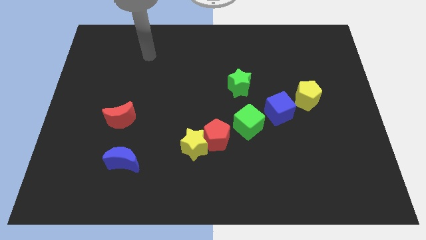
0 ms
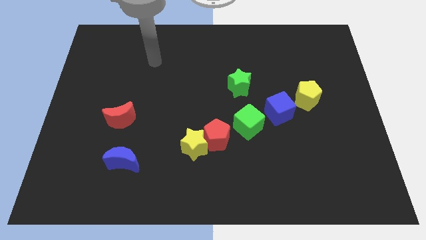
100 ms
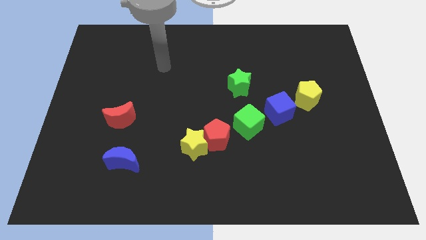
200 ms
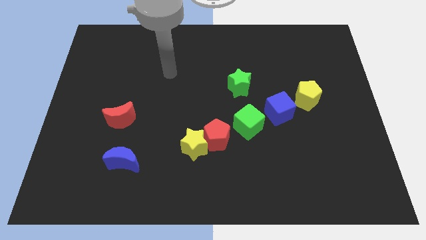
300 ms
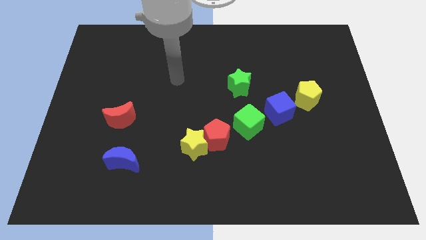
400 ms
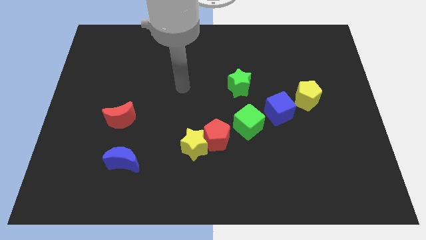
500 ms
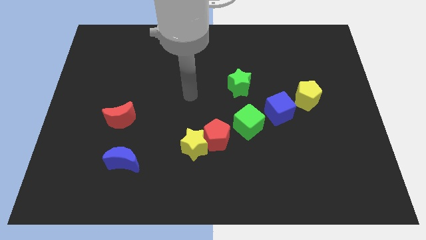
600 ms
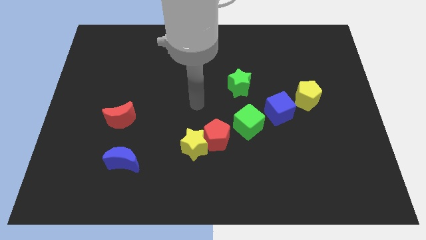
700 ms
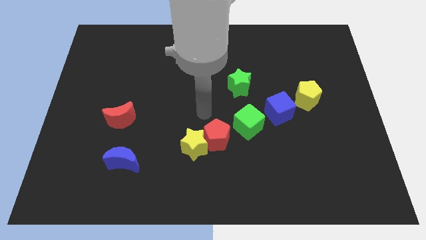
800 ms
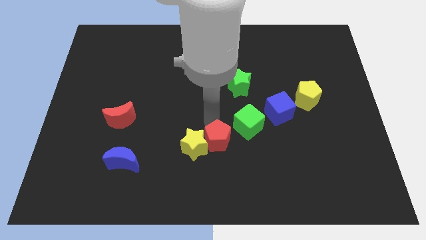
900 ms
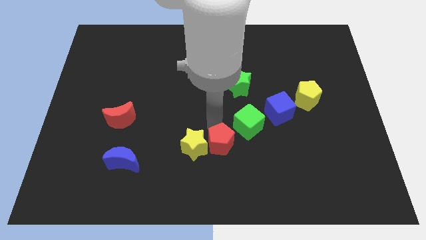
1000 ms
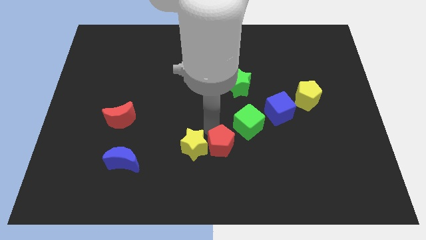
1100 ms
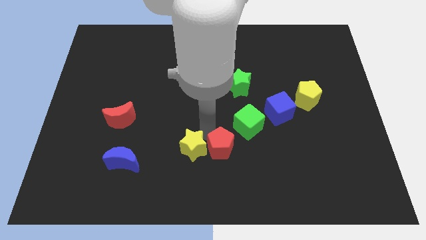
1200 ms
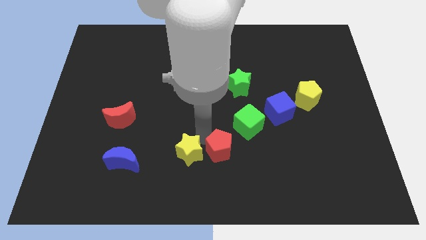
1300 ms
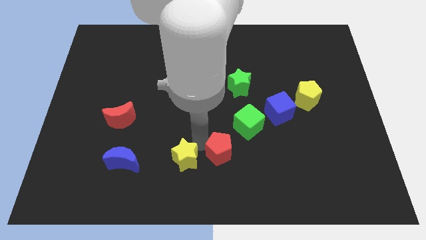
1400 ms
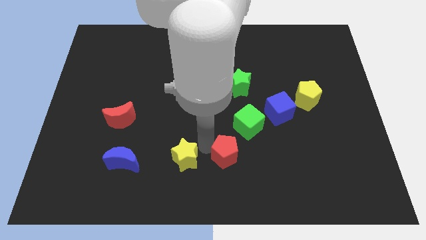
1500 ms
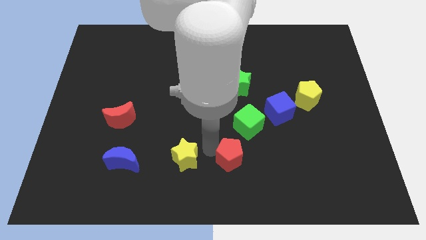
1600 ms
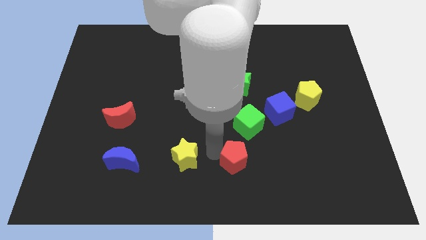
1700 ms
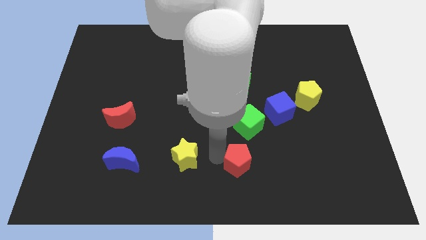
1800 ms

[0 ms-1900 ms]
move the yellow star away from the red pentagon

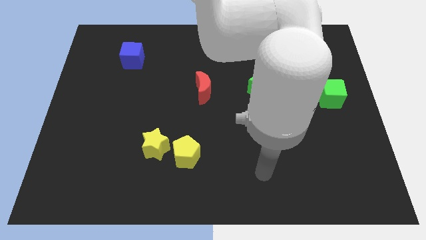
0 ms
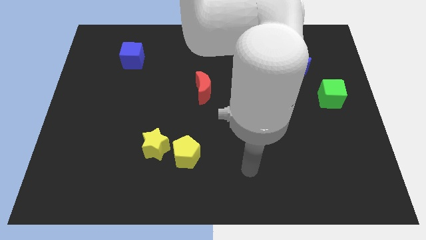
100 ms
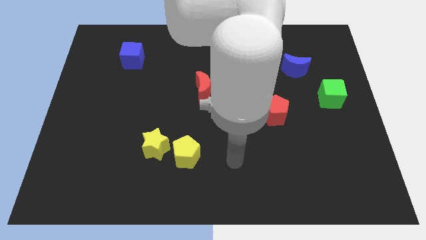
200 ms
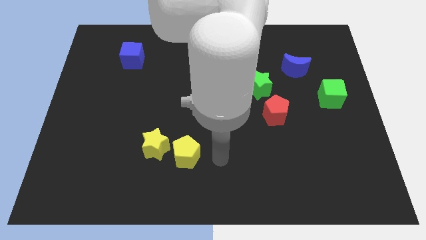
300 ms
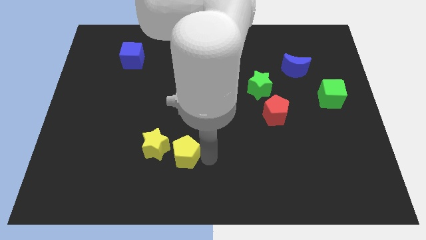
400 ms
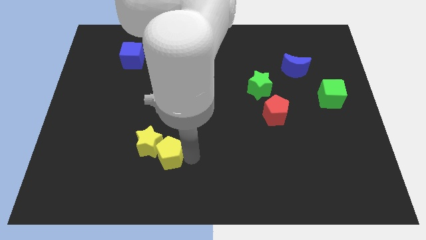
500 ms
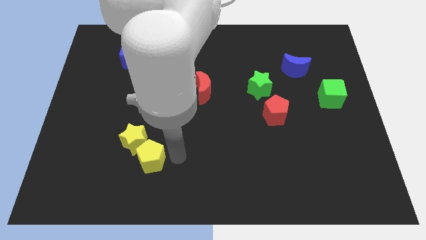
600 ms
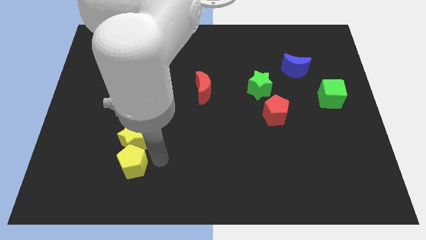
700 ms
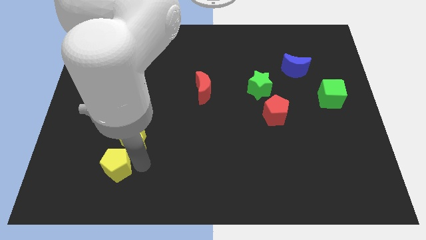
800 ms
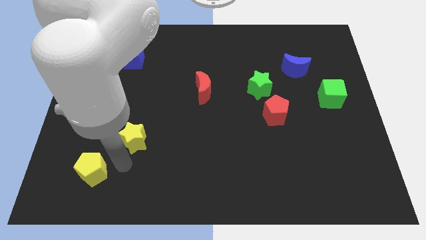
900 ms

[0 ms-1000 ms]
pull the yellow star apart from the yellow pentagon

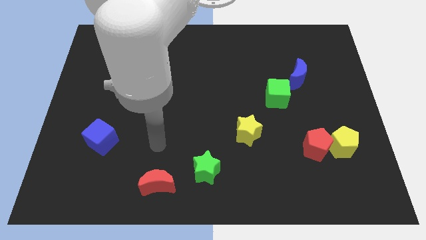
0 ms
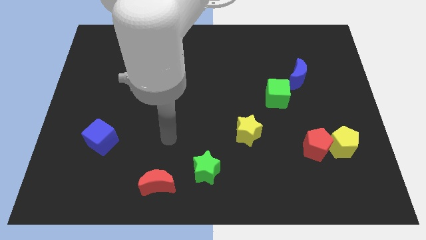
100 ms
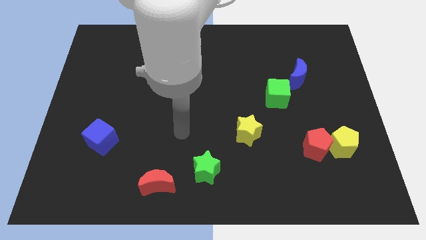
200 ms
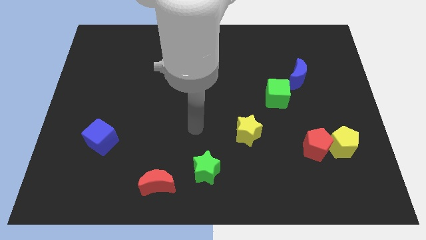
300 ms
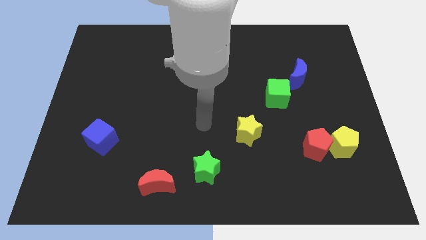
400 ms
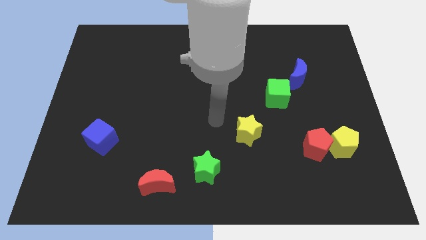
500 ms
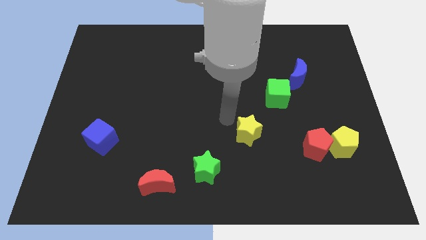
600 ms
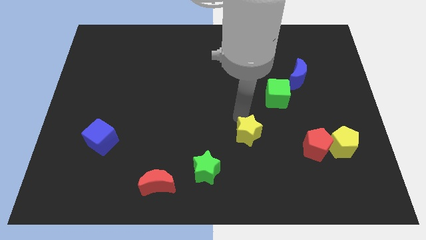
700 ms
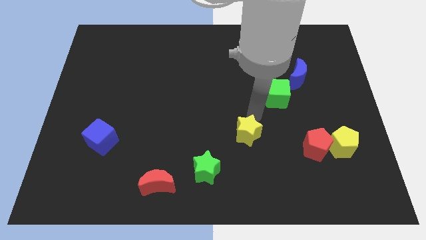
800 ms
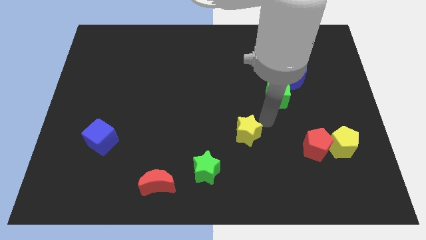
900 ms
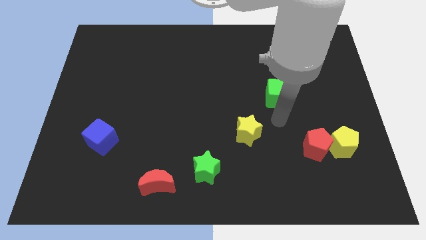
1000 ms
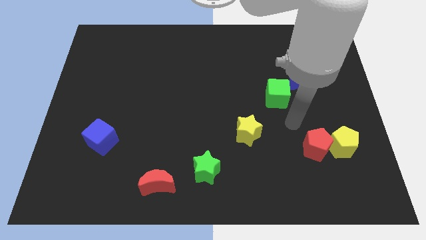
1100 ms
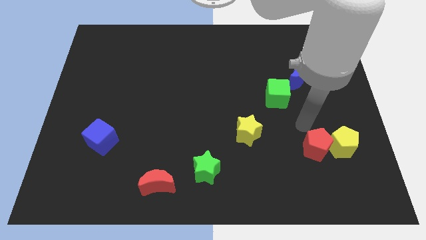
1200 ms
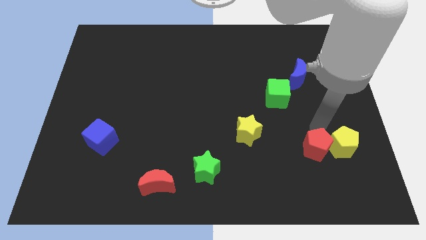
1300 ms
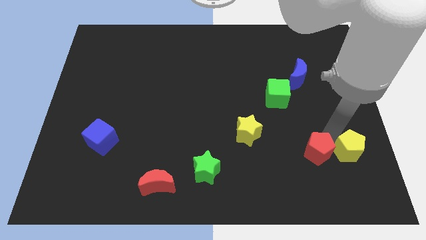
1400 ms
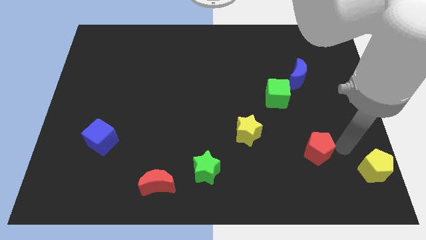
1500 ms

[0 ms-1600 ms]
separate the red pentagon from the yellow pentagon

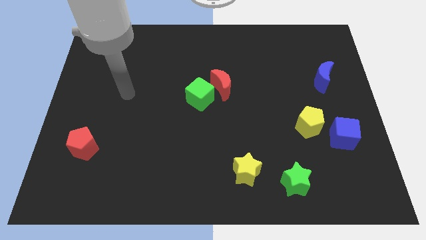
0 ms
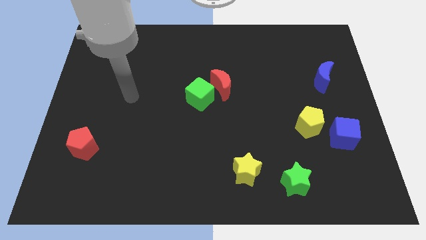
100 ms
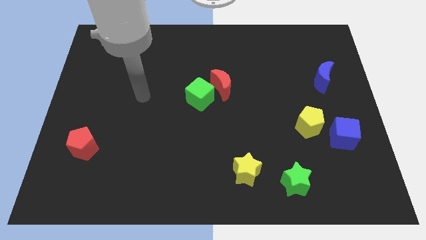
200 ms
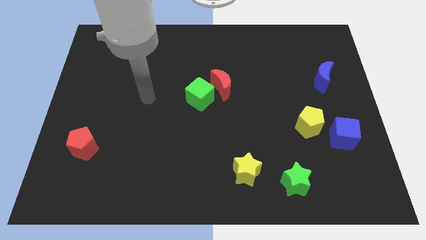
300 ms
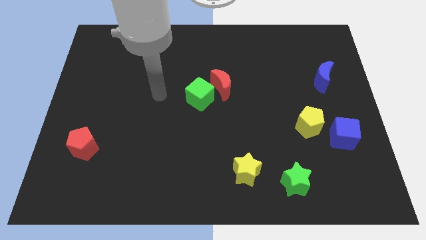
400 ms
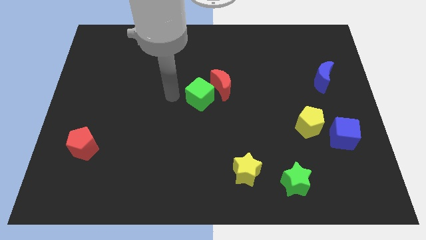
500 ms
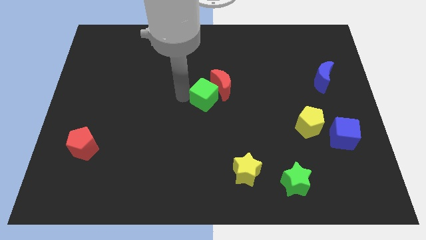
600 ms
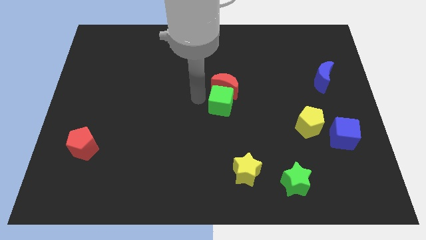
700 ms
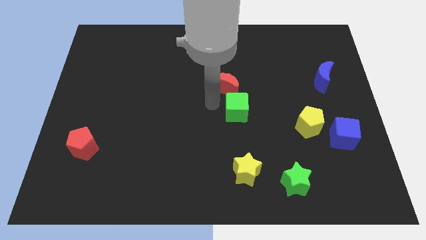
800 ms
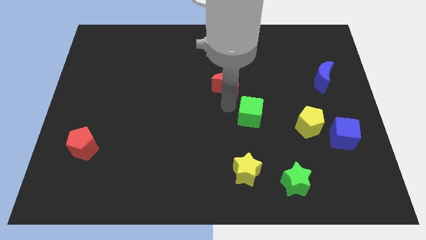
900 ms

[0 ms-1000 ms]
move the red moon away from the green cube

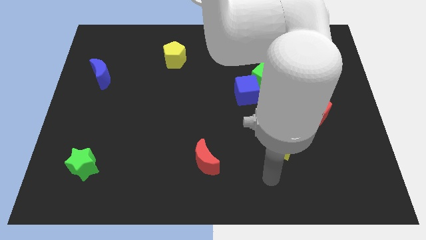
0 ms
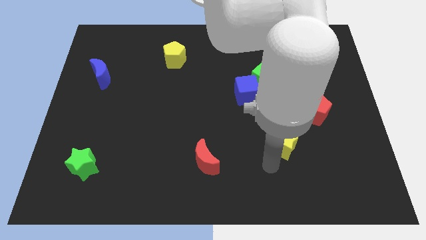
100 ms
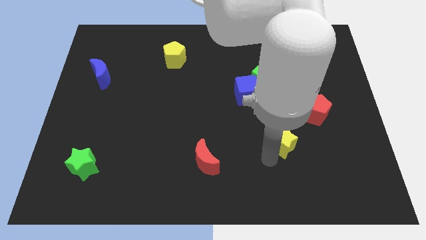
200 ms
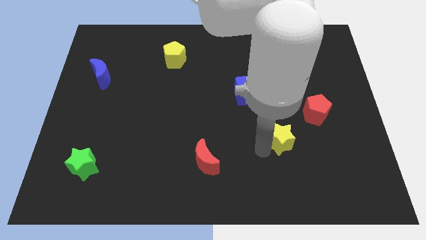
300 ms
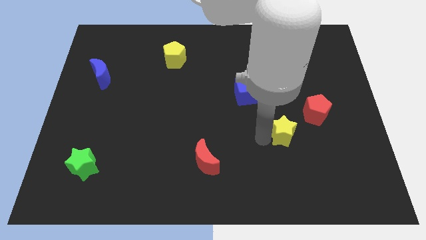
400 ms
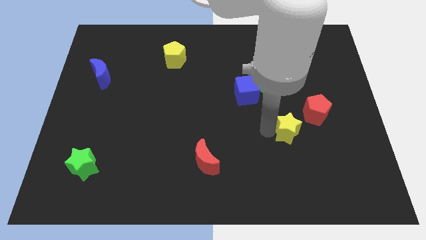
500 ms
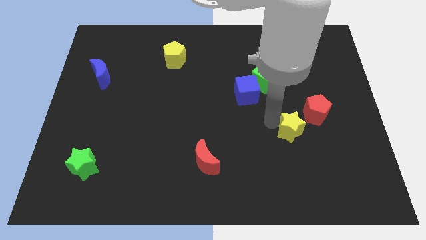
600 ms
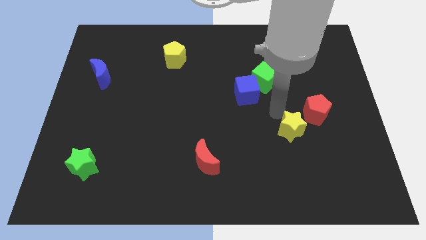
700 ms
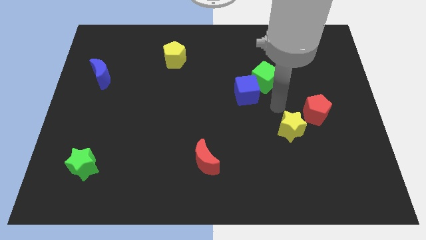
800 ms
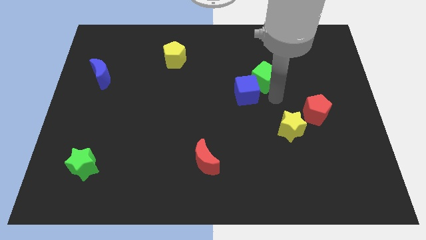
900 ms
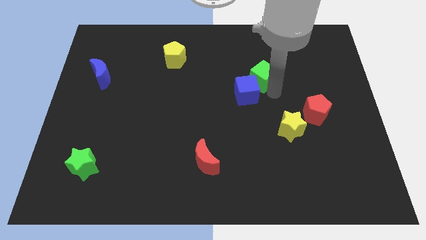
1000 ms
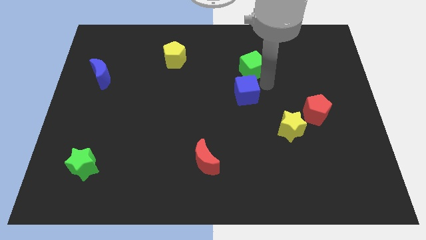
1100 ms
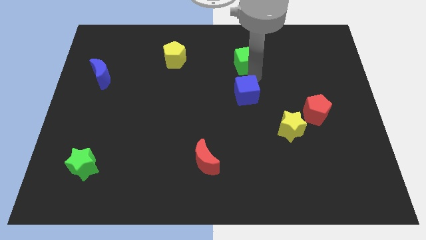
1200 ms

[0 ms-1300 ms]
separate the blue cube from the green cube

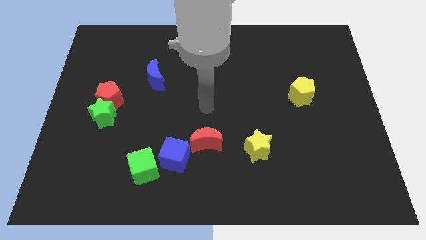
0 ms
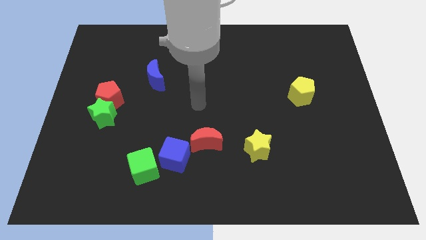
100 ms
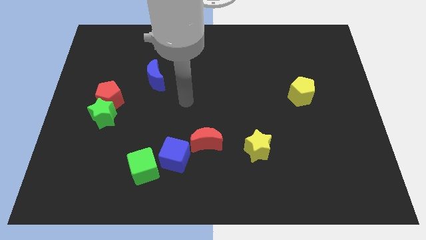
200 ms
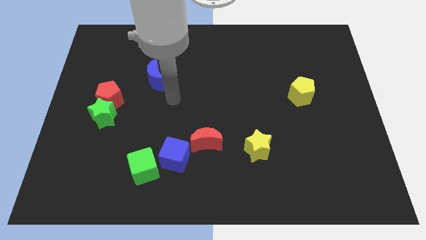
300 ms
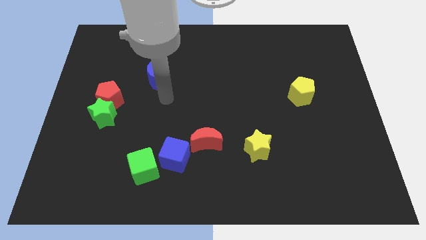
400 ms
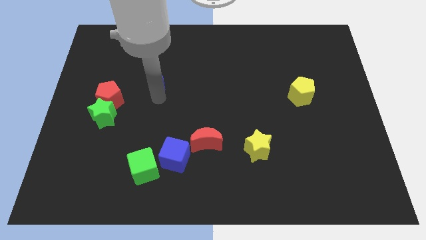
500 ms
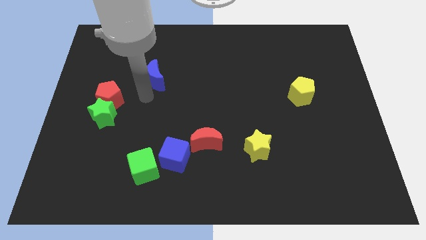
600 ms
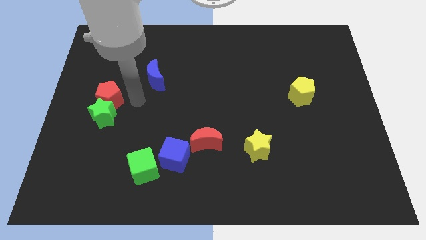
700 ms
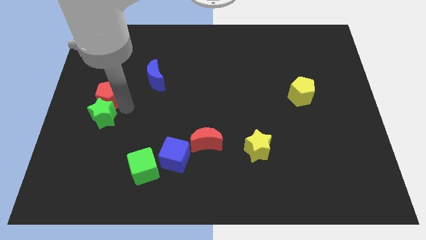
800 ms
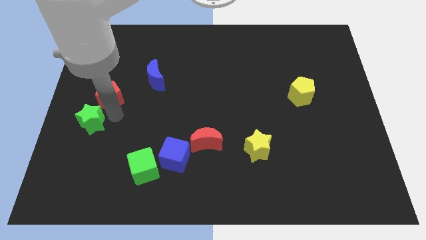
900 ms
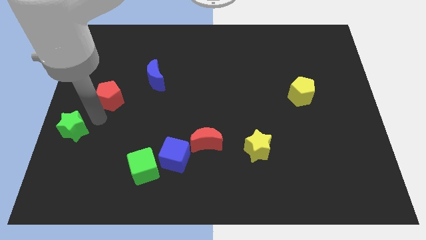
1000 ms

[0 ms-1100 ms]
pull the red pentagon apart from the green star

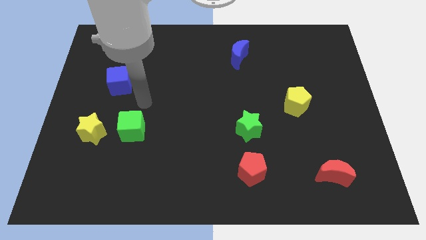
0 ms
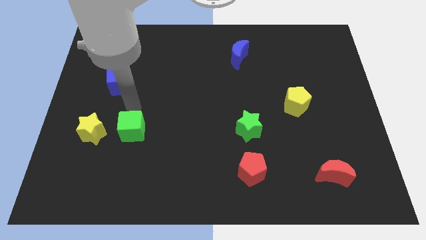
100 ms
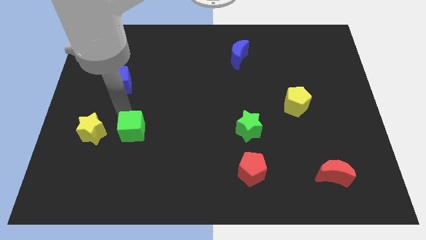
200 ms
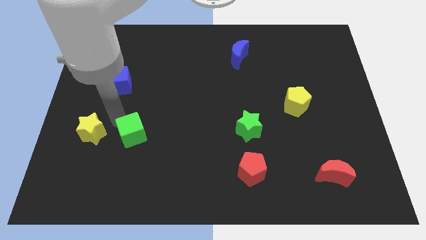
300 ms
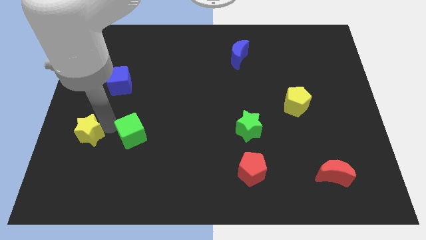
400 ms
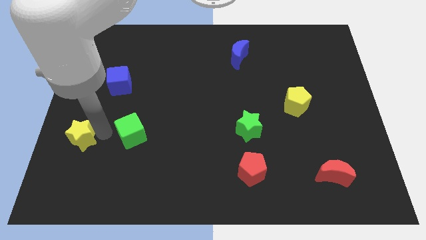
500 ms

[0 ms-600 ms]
pull the green cube apart from the yellow star

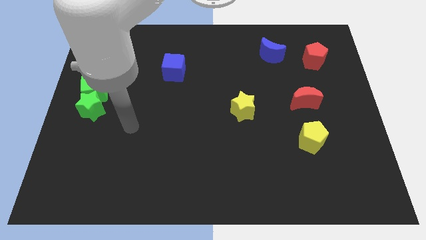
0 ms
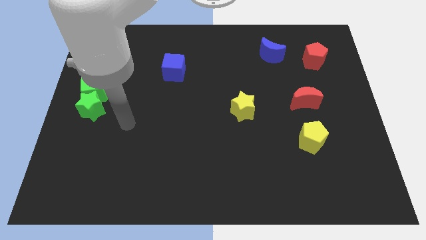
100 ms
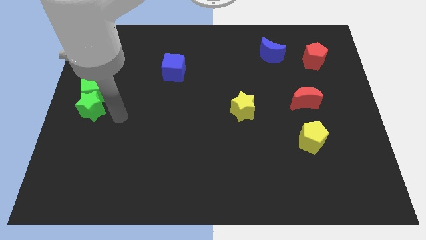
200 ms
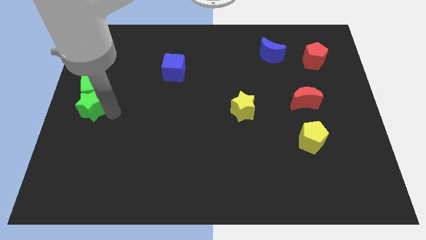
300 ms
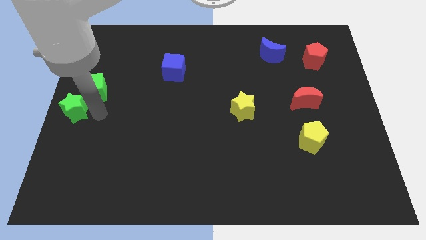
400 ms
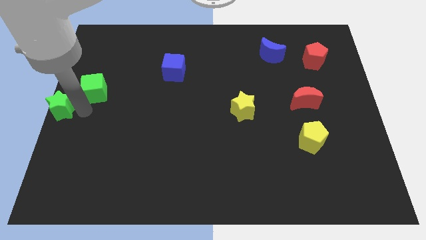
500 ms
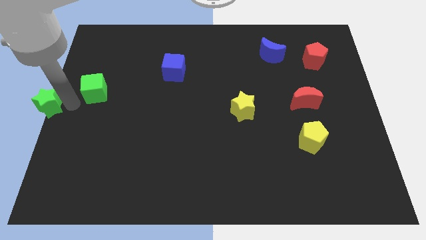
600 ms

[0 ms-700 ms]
separate the green cube from the green star
